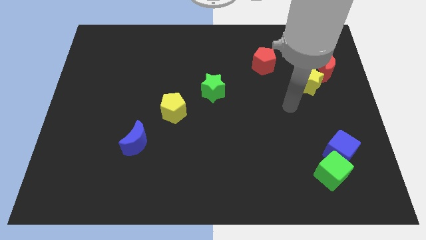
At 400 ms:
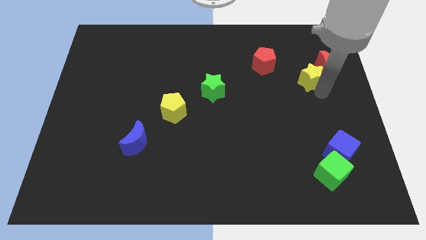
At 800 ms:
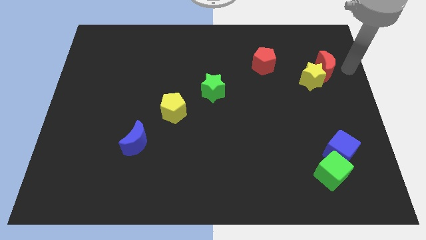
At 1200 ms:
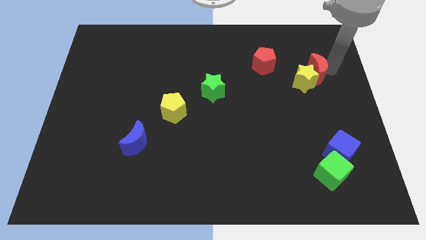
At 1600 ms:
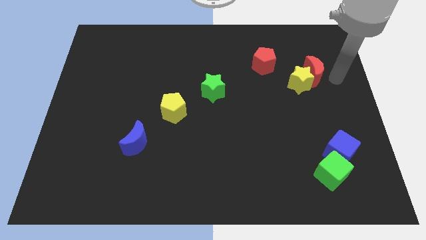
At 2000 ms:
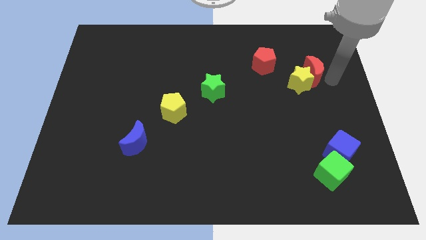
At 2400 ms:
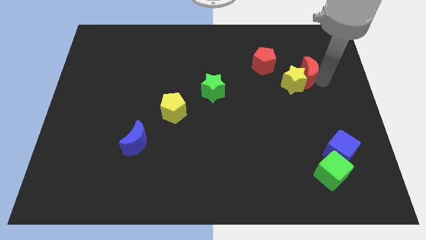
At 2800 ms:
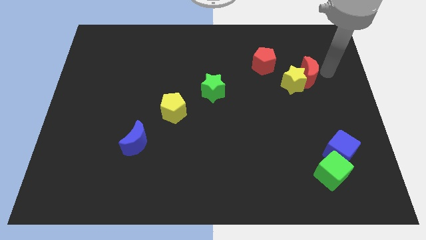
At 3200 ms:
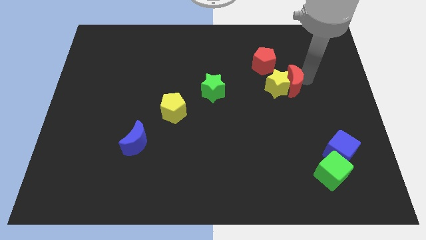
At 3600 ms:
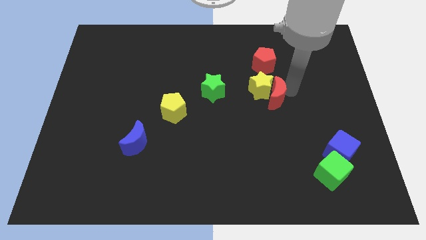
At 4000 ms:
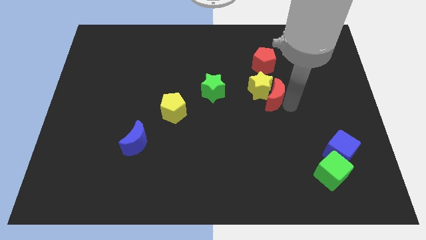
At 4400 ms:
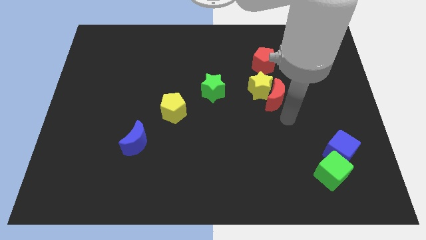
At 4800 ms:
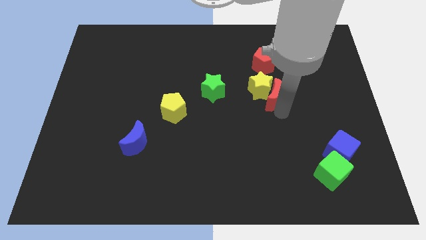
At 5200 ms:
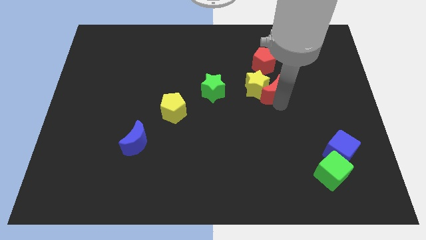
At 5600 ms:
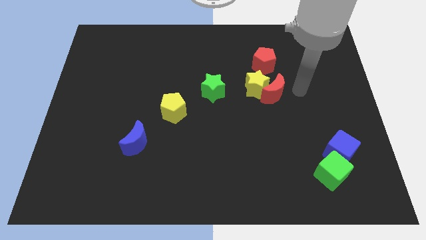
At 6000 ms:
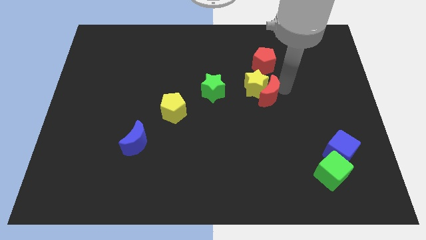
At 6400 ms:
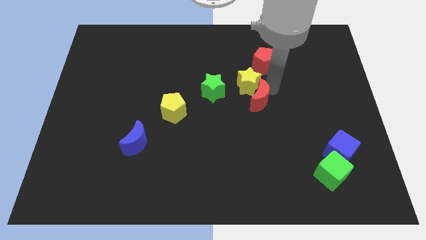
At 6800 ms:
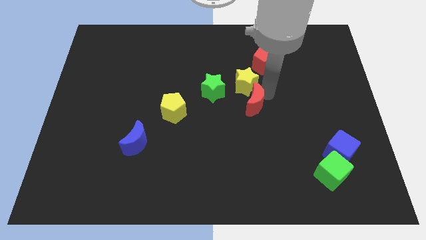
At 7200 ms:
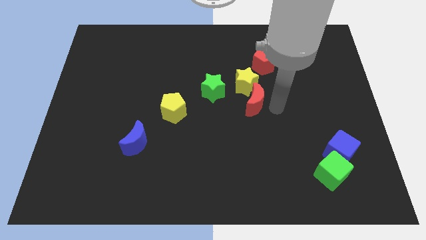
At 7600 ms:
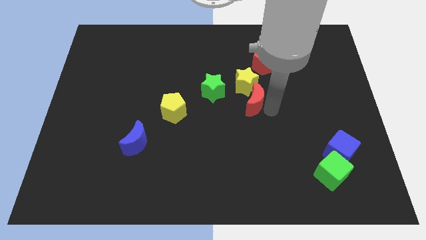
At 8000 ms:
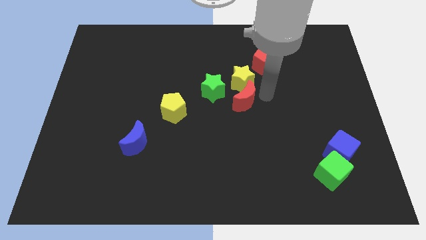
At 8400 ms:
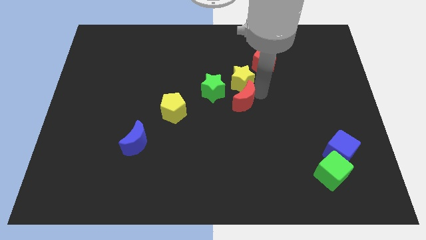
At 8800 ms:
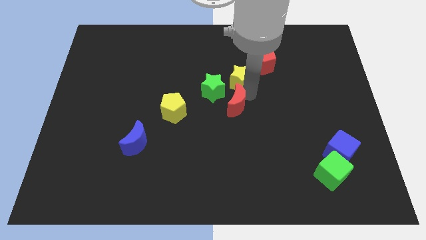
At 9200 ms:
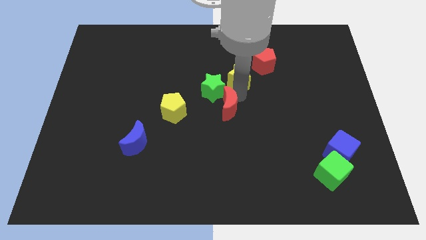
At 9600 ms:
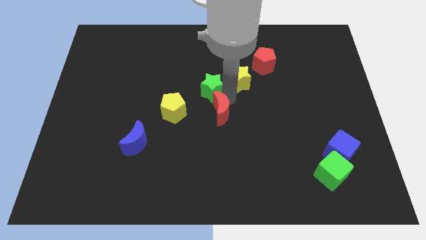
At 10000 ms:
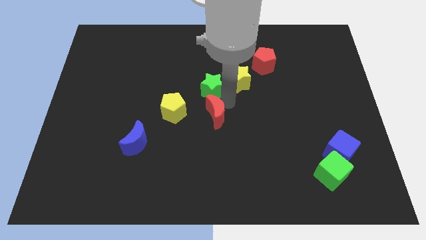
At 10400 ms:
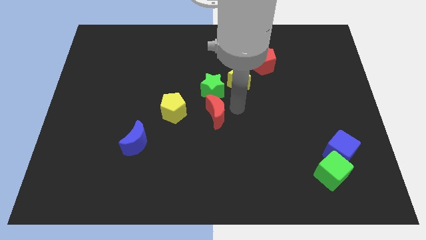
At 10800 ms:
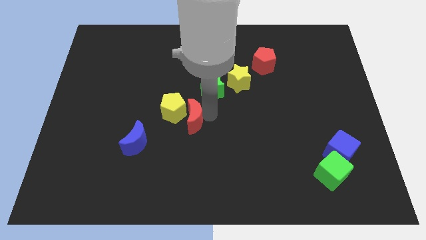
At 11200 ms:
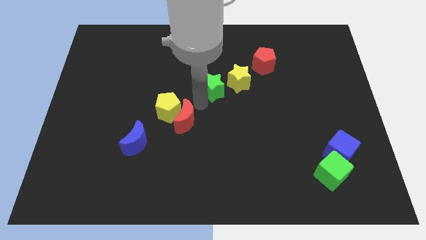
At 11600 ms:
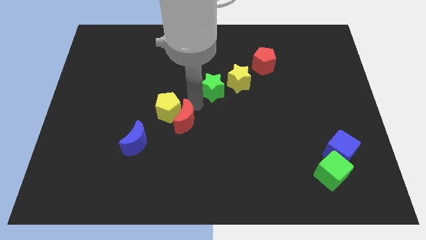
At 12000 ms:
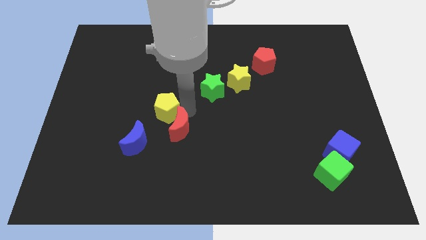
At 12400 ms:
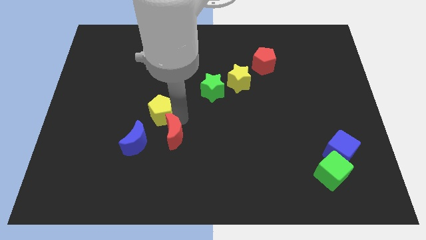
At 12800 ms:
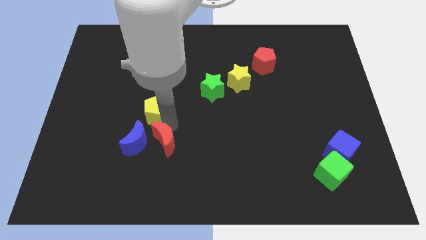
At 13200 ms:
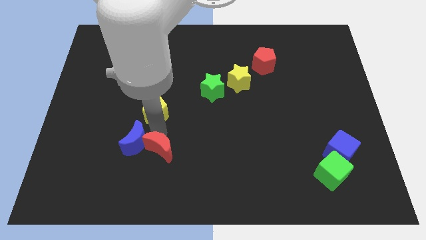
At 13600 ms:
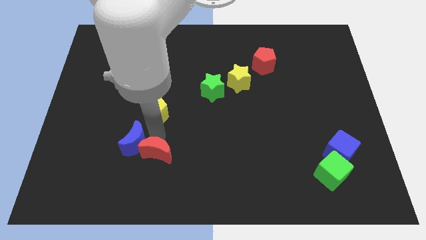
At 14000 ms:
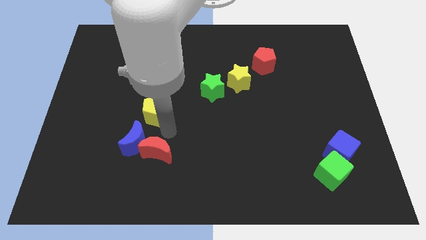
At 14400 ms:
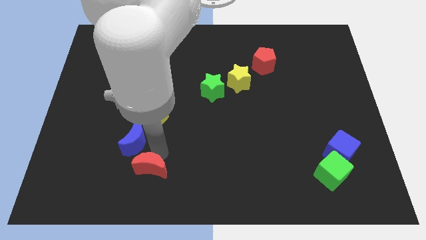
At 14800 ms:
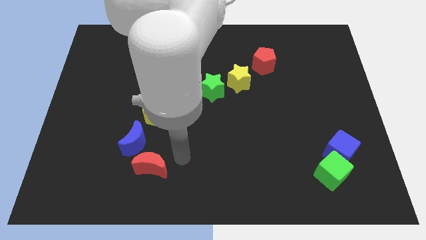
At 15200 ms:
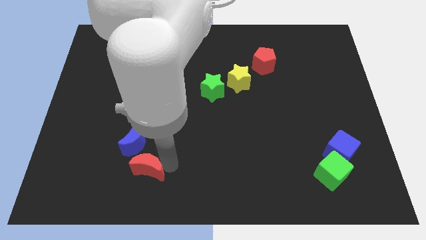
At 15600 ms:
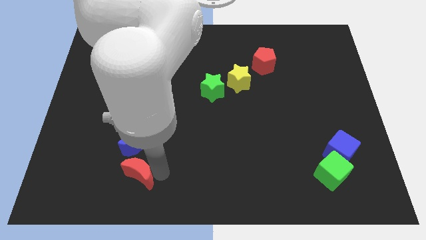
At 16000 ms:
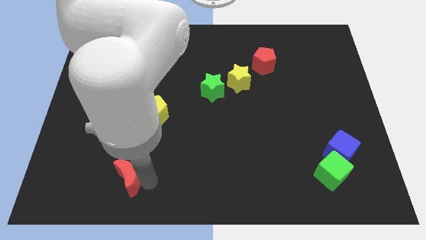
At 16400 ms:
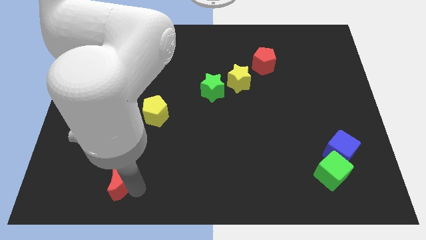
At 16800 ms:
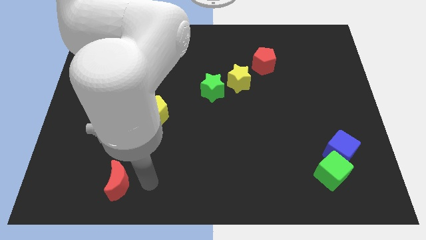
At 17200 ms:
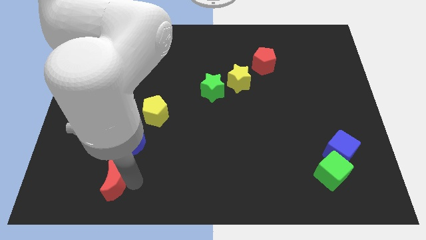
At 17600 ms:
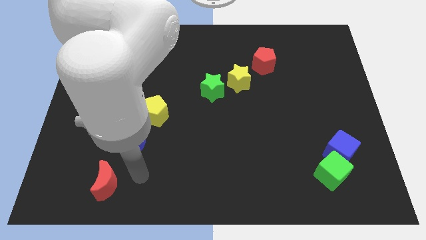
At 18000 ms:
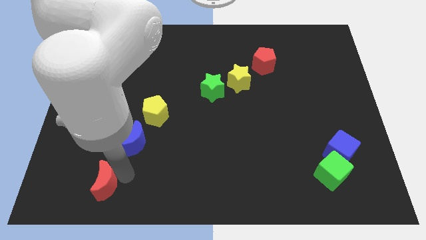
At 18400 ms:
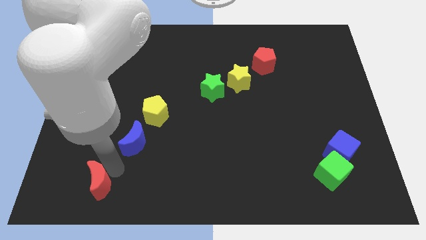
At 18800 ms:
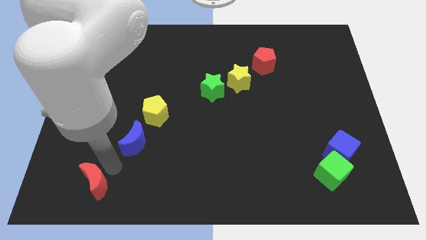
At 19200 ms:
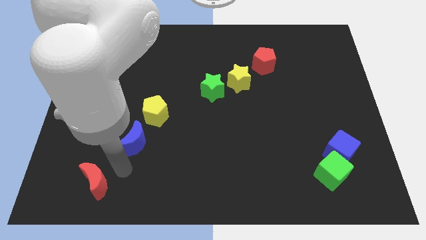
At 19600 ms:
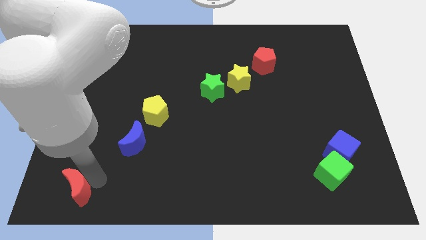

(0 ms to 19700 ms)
put the red moon to the bottom left

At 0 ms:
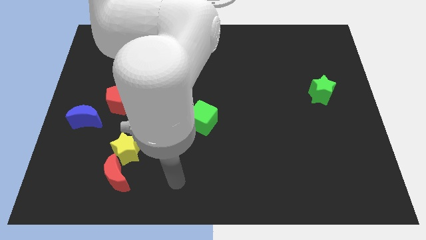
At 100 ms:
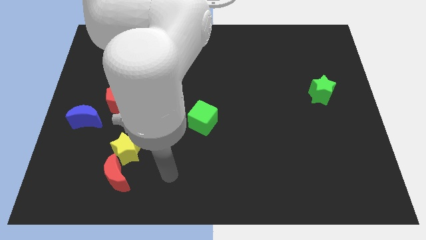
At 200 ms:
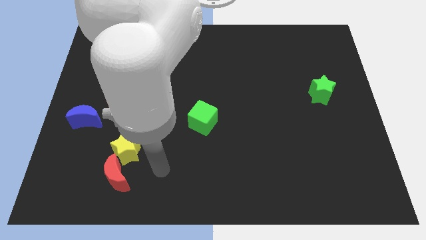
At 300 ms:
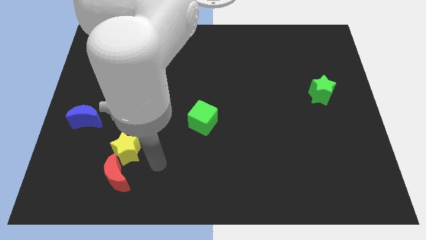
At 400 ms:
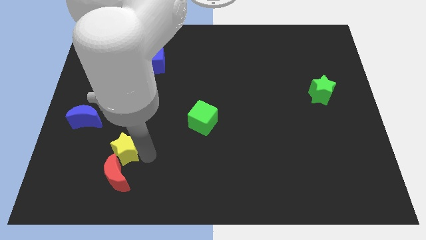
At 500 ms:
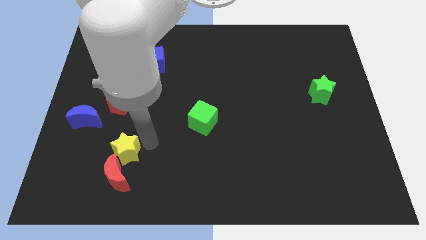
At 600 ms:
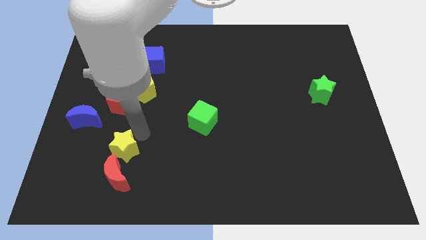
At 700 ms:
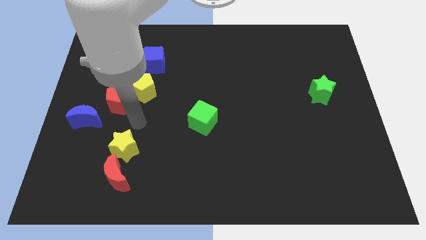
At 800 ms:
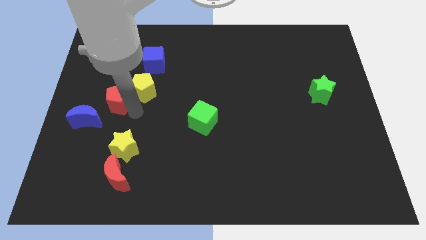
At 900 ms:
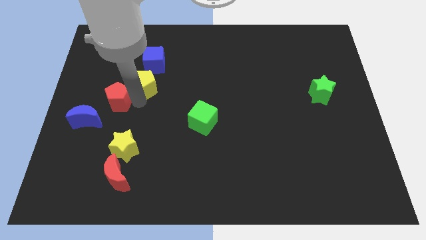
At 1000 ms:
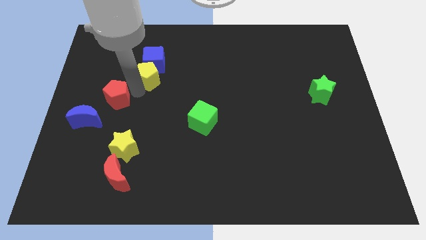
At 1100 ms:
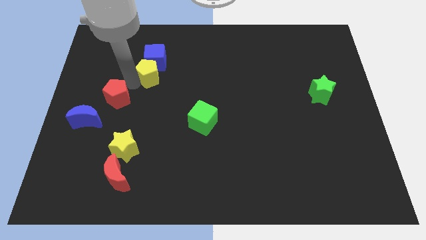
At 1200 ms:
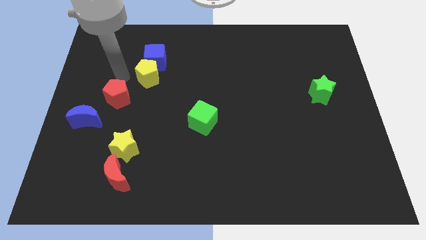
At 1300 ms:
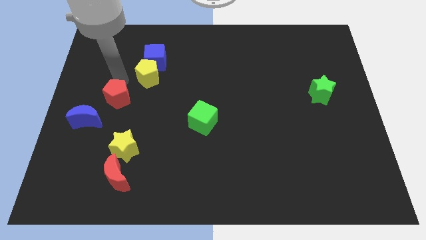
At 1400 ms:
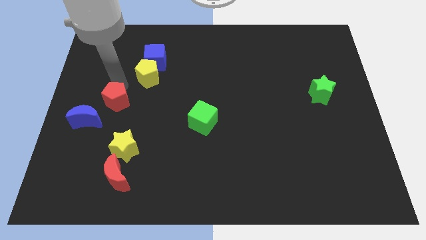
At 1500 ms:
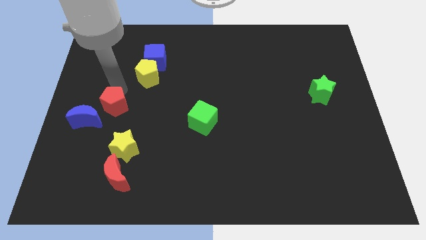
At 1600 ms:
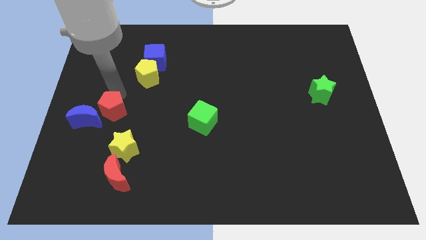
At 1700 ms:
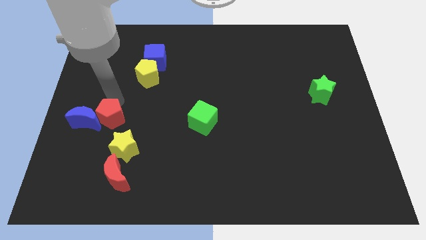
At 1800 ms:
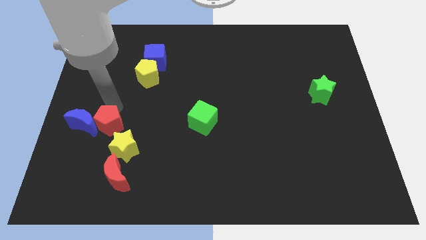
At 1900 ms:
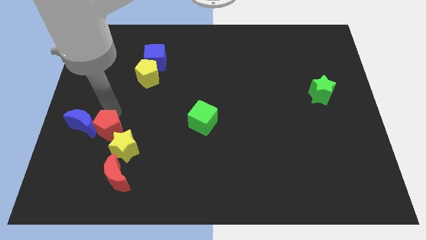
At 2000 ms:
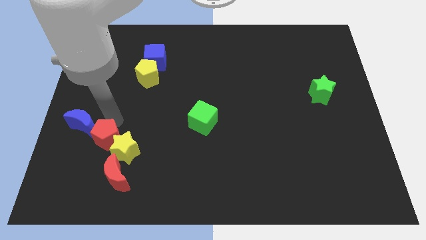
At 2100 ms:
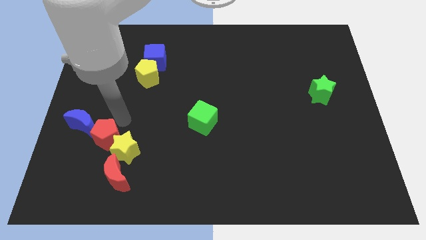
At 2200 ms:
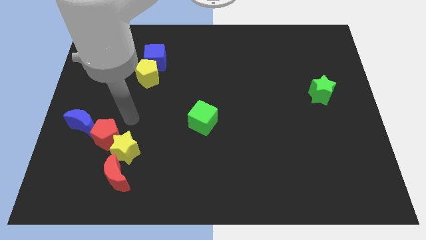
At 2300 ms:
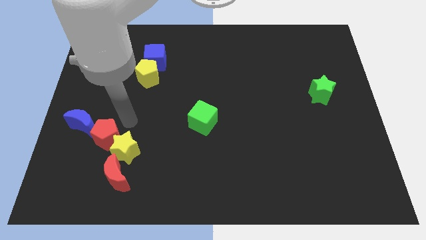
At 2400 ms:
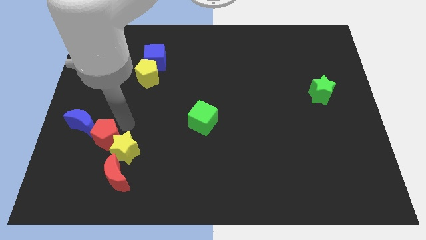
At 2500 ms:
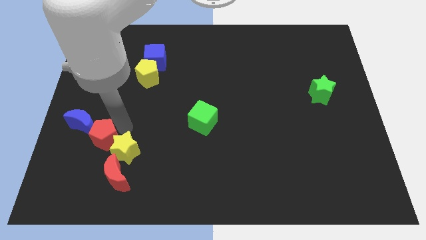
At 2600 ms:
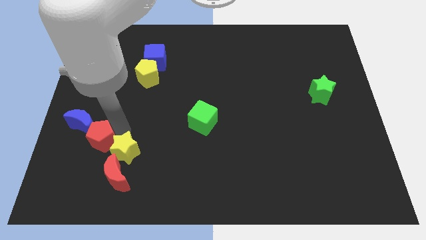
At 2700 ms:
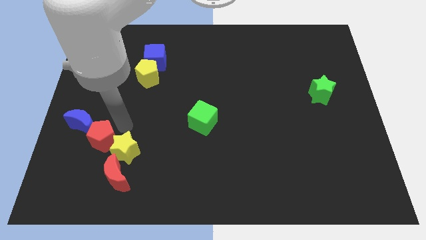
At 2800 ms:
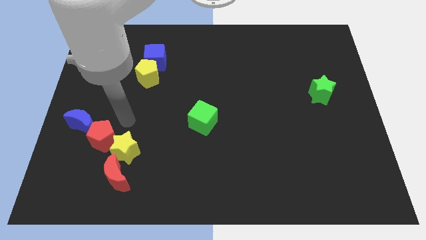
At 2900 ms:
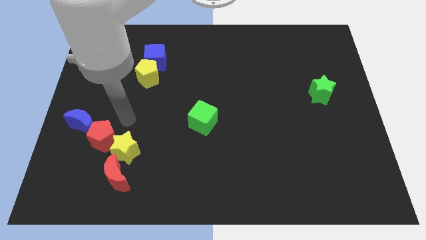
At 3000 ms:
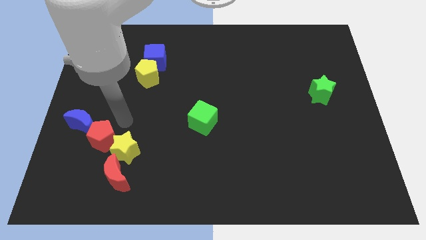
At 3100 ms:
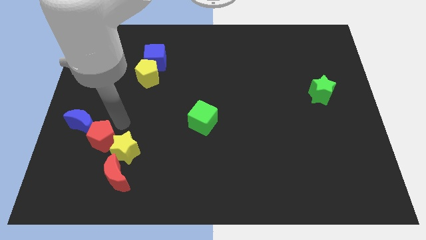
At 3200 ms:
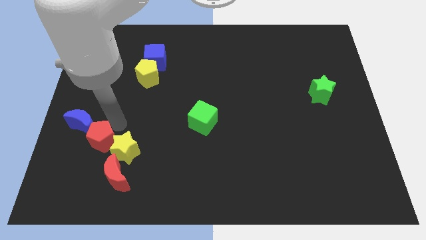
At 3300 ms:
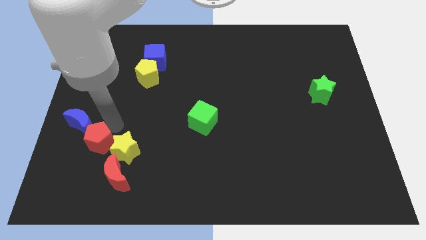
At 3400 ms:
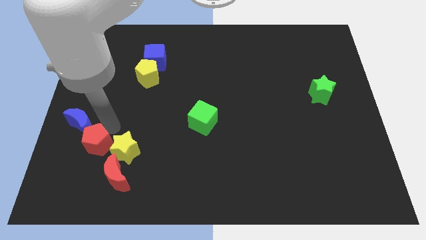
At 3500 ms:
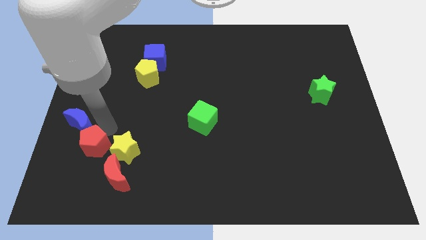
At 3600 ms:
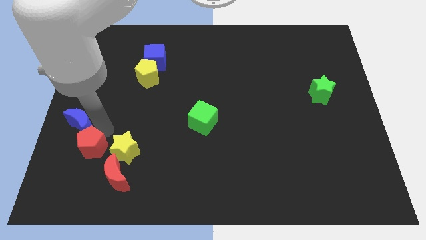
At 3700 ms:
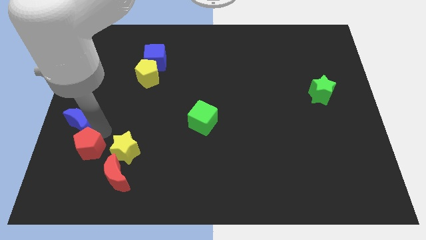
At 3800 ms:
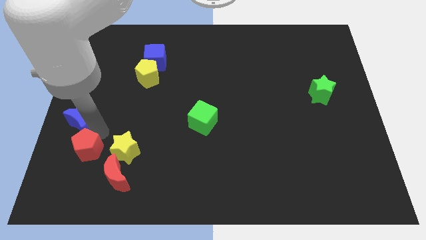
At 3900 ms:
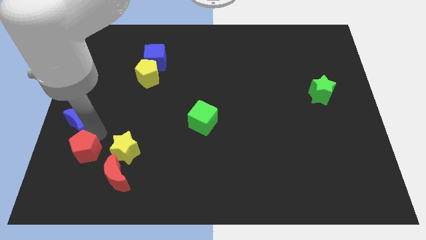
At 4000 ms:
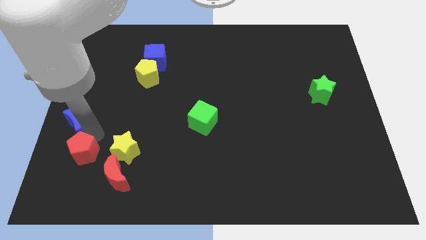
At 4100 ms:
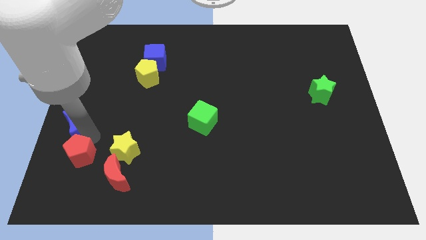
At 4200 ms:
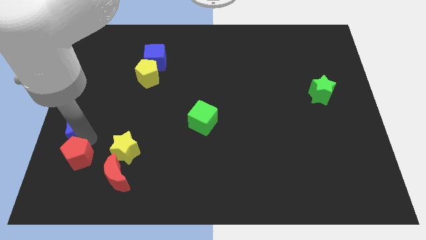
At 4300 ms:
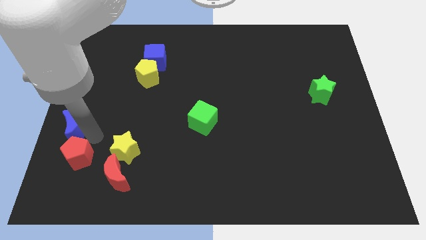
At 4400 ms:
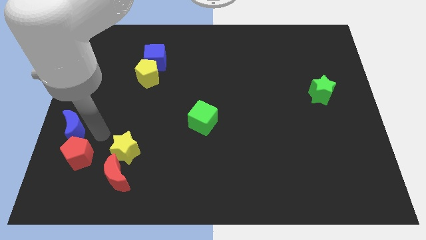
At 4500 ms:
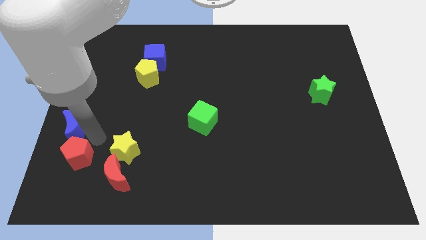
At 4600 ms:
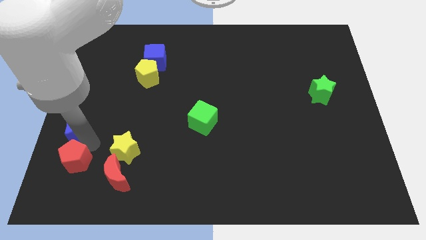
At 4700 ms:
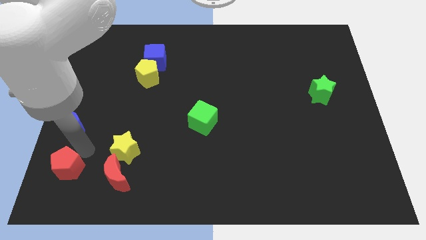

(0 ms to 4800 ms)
put the red pentagon to the lower left corner
